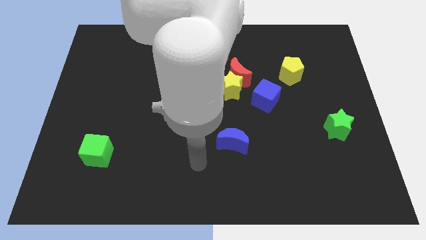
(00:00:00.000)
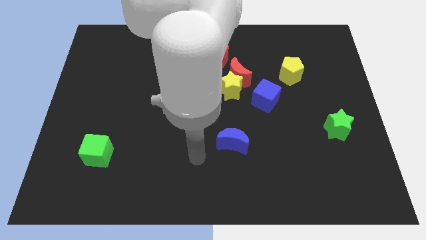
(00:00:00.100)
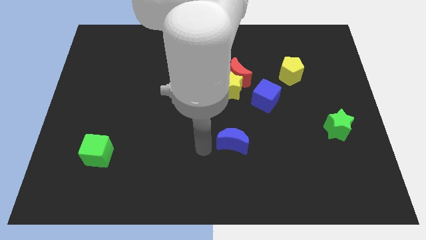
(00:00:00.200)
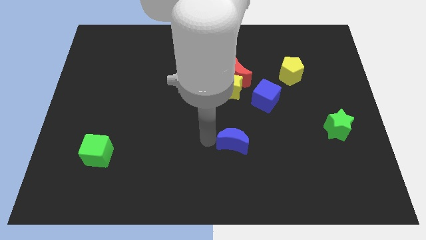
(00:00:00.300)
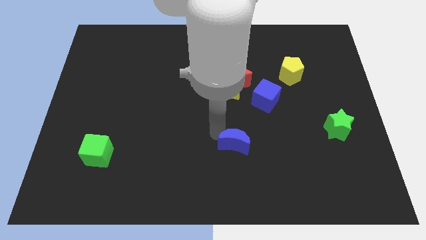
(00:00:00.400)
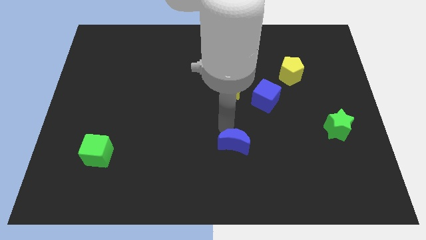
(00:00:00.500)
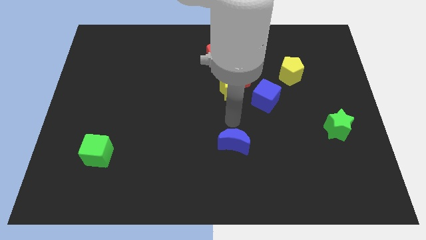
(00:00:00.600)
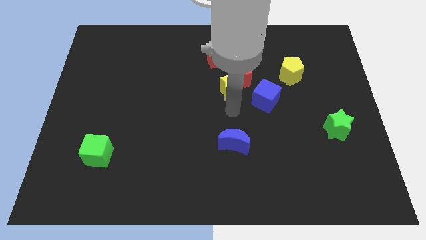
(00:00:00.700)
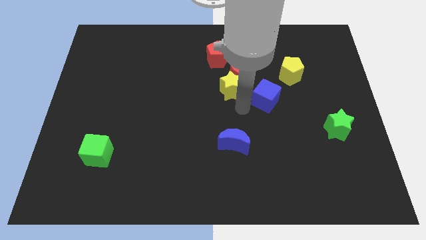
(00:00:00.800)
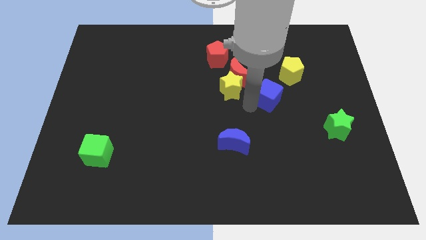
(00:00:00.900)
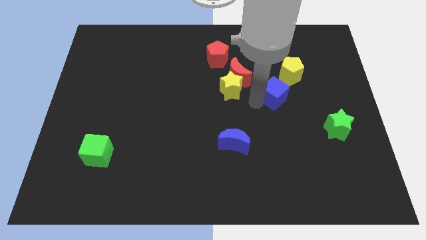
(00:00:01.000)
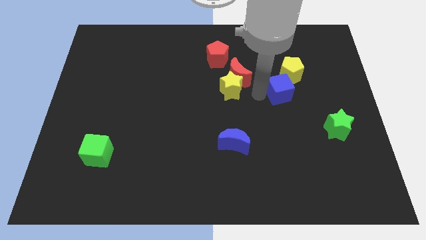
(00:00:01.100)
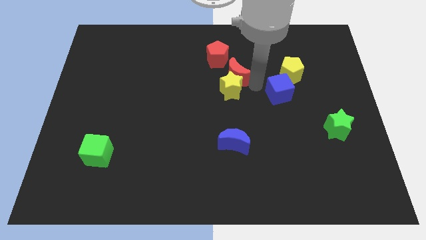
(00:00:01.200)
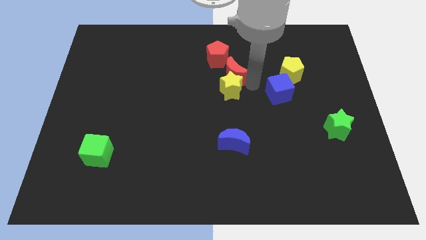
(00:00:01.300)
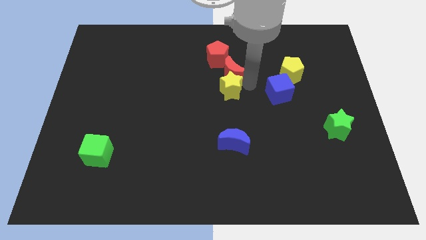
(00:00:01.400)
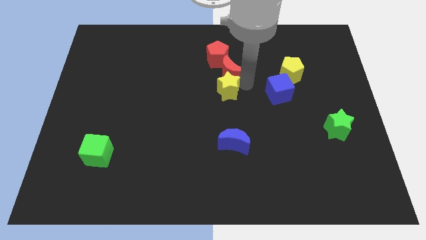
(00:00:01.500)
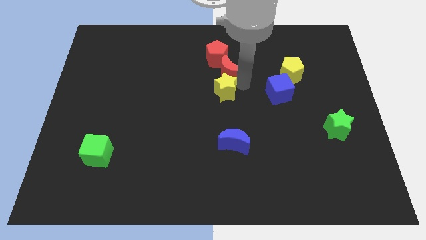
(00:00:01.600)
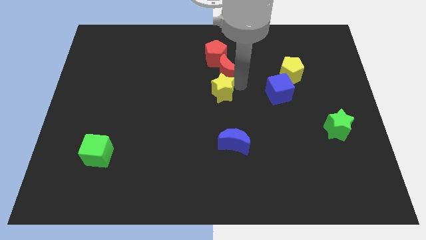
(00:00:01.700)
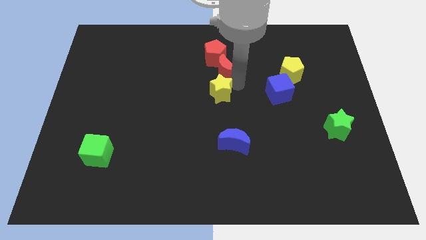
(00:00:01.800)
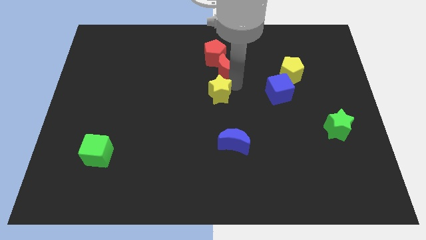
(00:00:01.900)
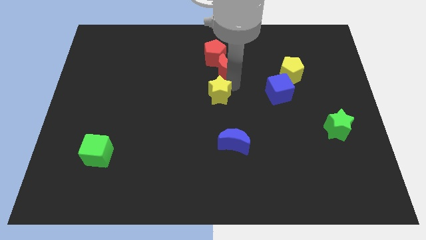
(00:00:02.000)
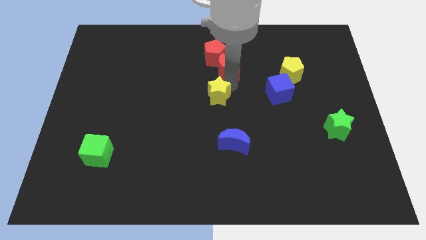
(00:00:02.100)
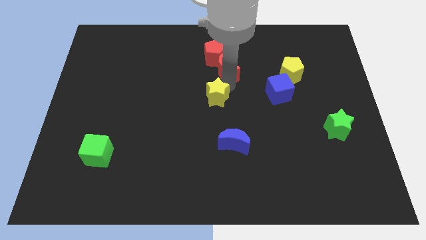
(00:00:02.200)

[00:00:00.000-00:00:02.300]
move the yellow star away from the red moon and blue cube

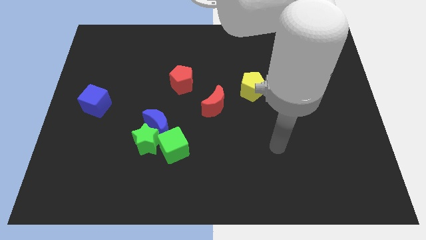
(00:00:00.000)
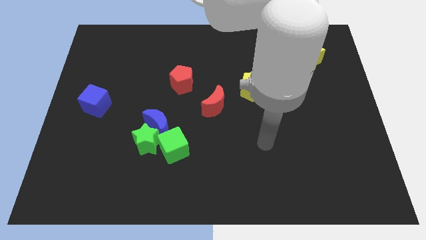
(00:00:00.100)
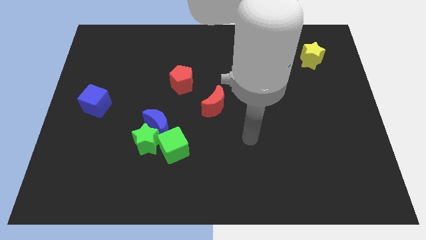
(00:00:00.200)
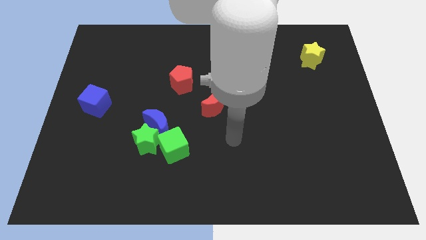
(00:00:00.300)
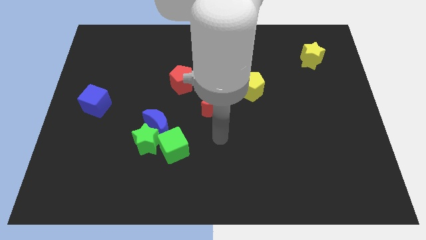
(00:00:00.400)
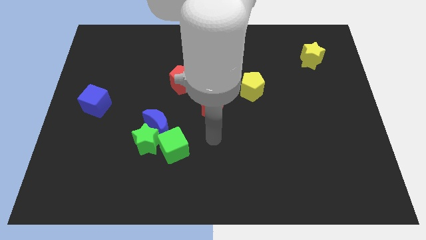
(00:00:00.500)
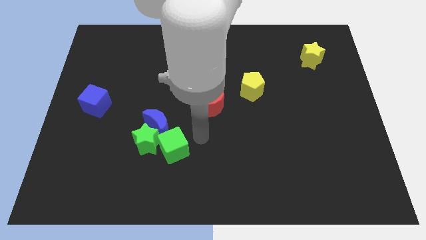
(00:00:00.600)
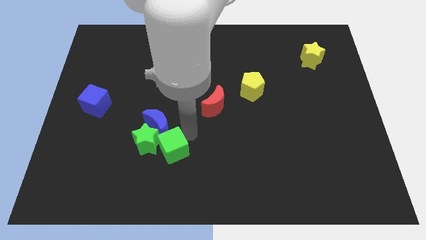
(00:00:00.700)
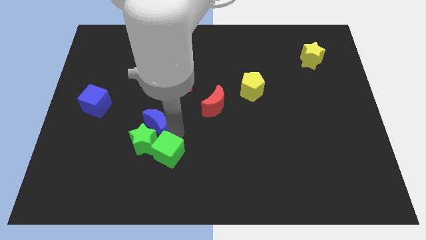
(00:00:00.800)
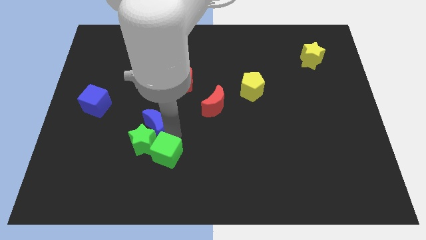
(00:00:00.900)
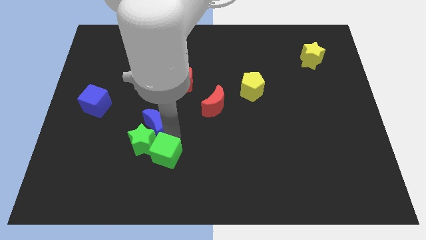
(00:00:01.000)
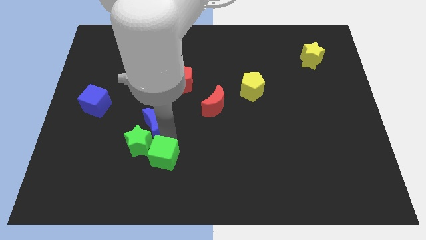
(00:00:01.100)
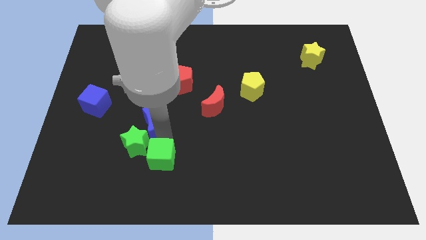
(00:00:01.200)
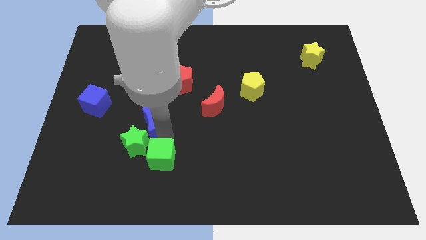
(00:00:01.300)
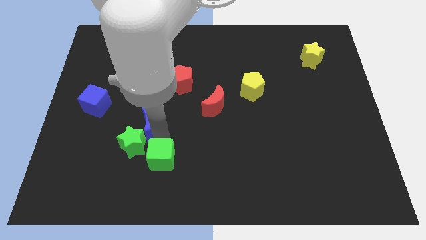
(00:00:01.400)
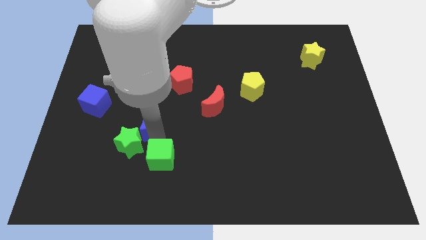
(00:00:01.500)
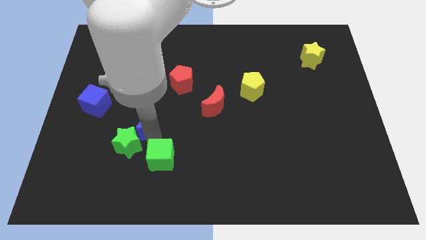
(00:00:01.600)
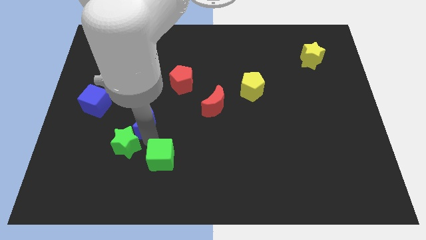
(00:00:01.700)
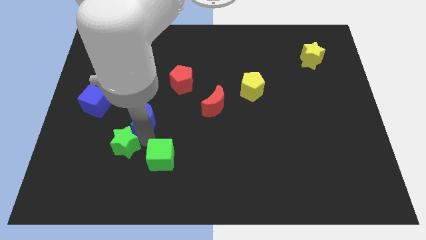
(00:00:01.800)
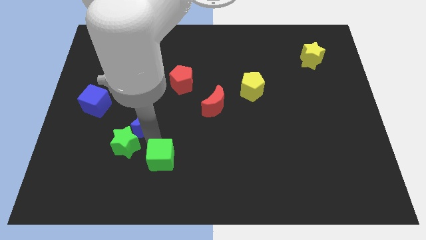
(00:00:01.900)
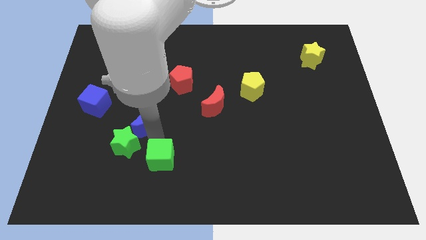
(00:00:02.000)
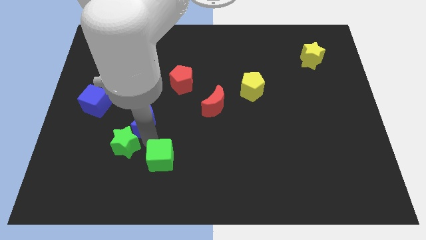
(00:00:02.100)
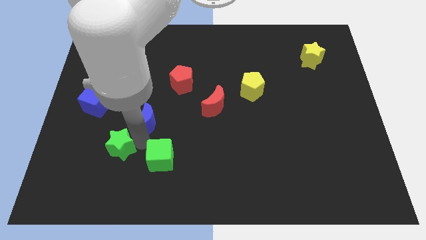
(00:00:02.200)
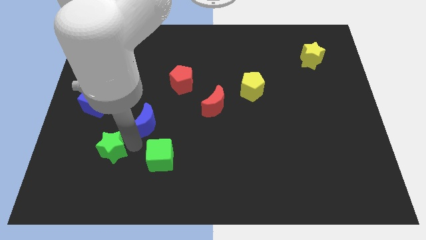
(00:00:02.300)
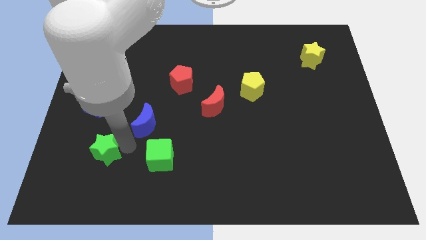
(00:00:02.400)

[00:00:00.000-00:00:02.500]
move the green star away from the blue moon and green cube

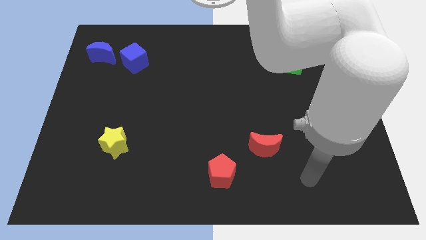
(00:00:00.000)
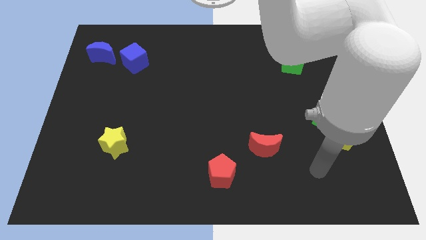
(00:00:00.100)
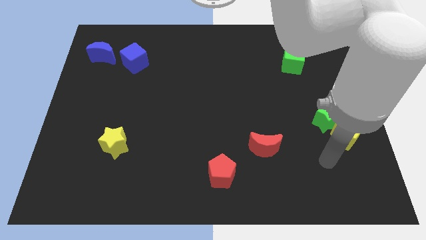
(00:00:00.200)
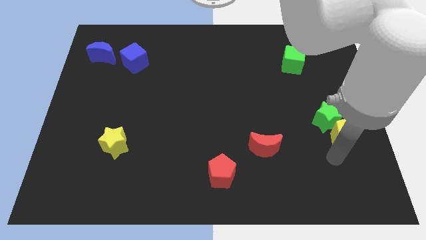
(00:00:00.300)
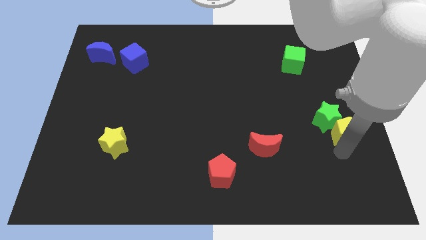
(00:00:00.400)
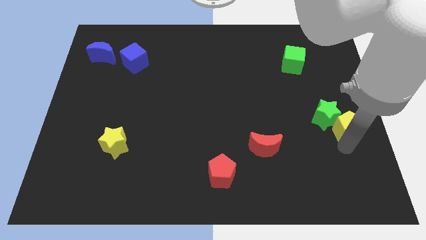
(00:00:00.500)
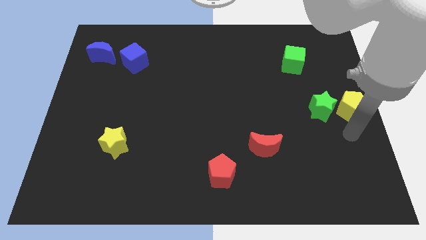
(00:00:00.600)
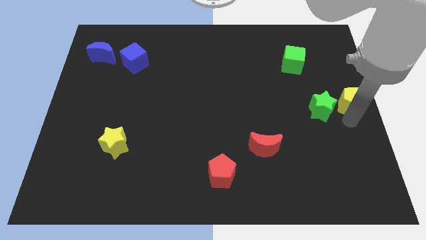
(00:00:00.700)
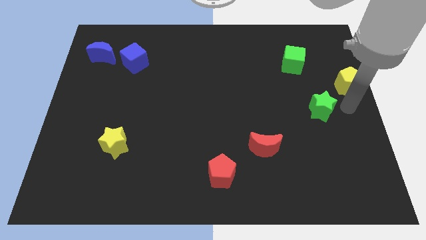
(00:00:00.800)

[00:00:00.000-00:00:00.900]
separate the green star from the yellow pentagon

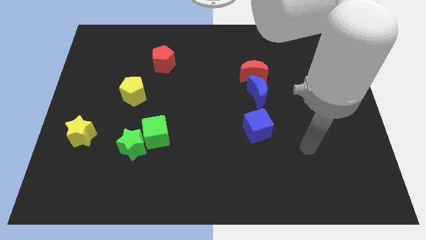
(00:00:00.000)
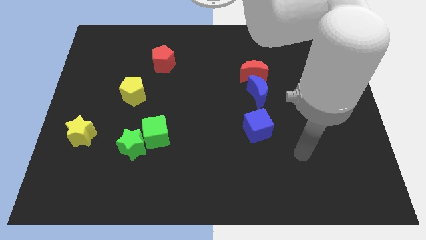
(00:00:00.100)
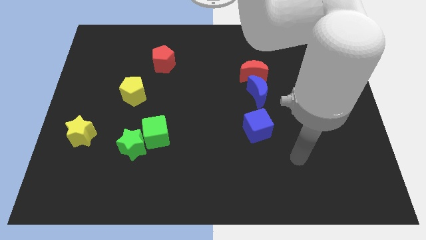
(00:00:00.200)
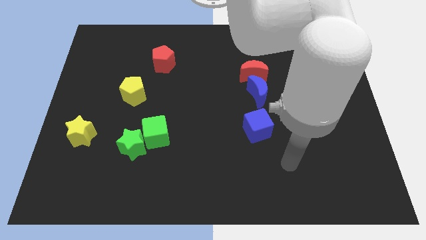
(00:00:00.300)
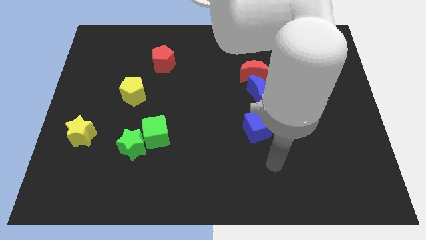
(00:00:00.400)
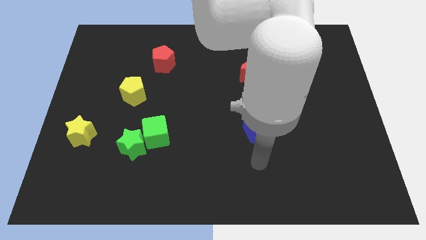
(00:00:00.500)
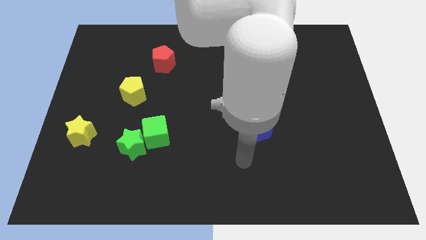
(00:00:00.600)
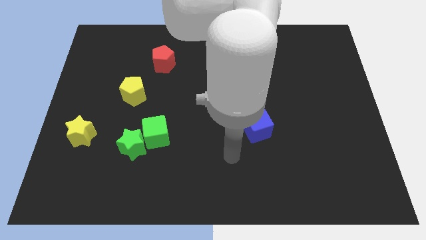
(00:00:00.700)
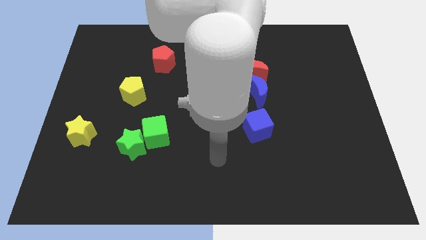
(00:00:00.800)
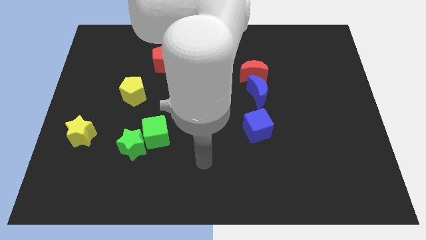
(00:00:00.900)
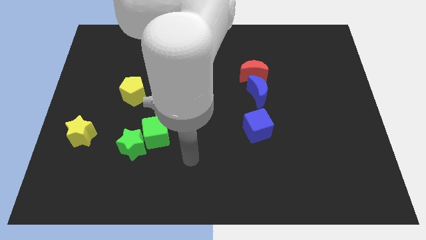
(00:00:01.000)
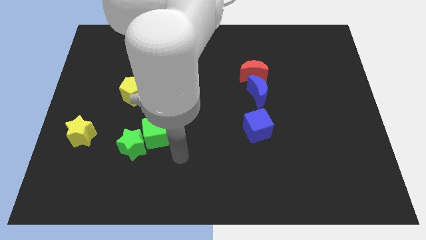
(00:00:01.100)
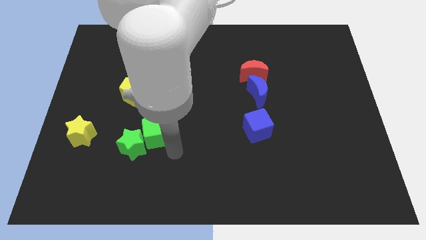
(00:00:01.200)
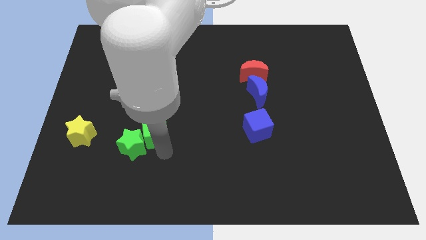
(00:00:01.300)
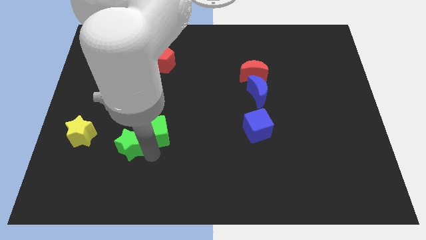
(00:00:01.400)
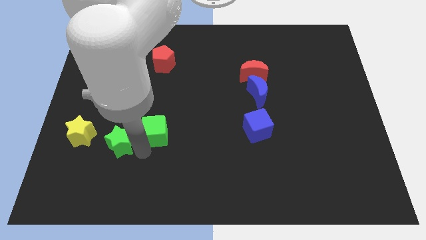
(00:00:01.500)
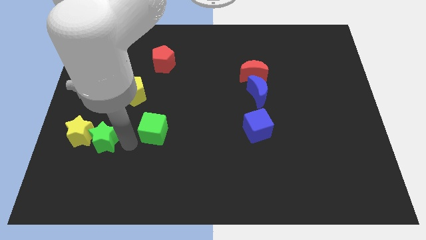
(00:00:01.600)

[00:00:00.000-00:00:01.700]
pull the green cube apart from the green star

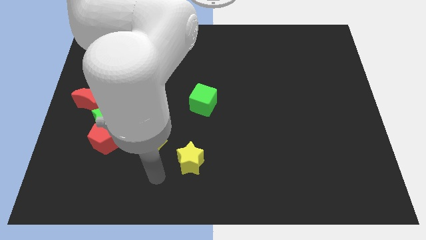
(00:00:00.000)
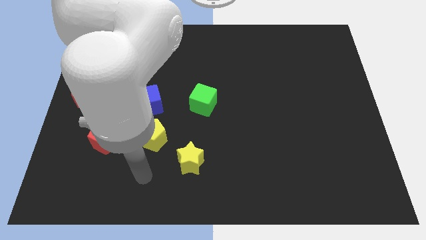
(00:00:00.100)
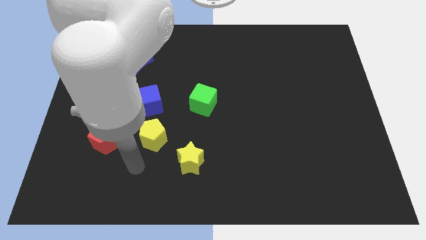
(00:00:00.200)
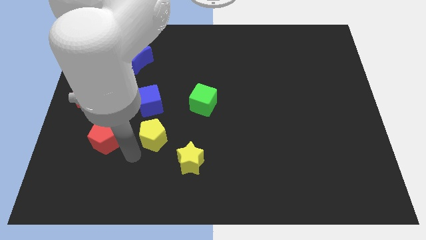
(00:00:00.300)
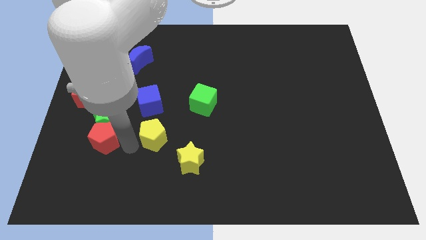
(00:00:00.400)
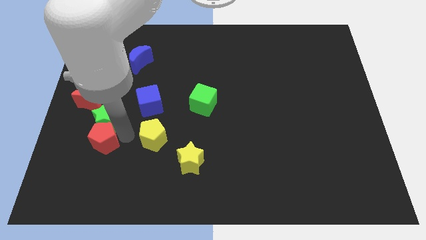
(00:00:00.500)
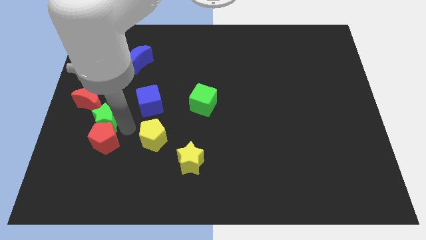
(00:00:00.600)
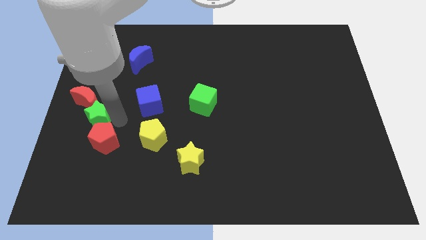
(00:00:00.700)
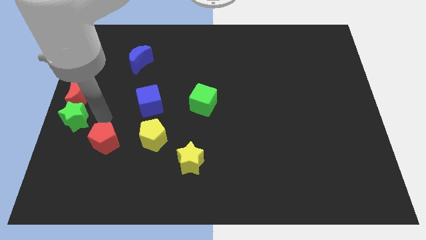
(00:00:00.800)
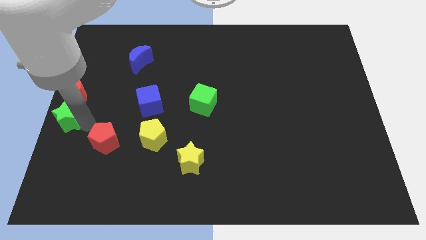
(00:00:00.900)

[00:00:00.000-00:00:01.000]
separate the red pentagon from the green star

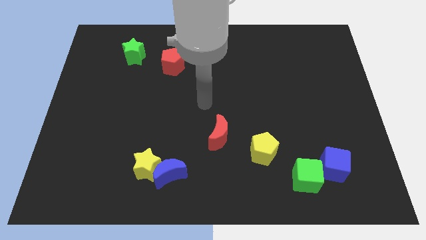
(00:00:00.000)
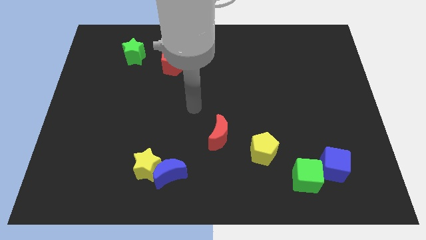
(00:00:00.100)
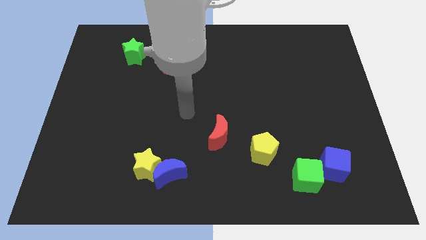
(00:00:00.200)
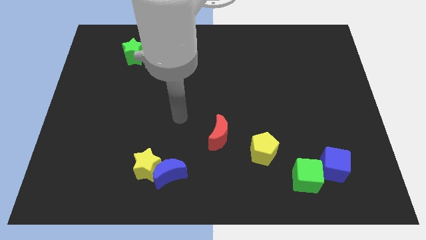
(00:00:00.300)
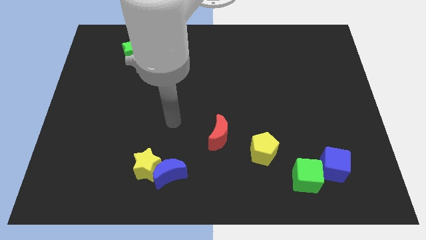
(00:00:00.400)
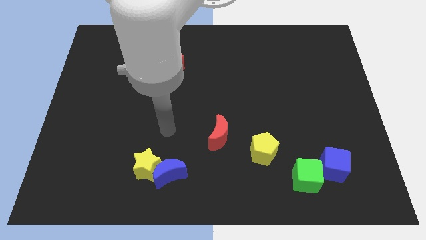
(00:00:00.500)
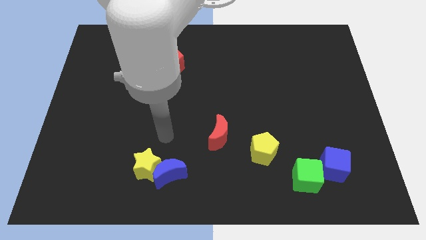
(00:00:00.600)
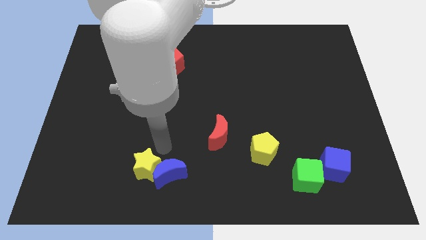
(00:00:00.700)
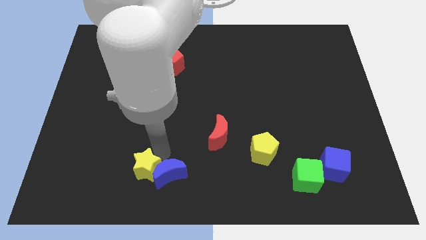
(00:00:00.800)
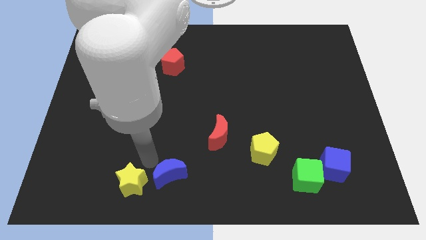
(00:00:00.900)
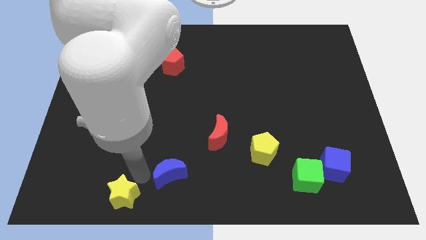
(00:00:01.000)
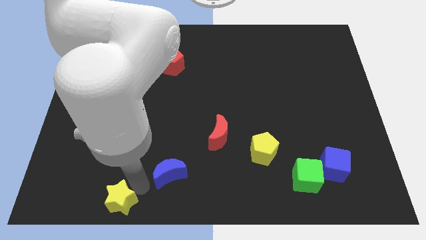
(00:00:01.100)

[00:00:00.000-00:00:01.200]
pull the blue moon apart from the yellow star
